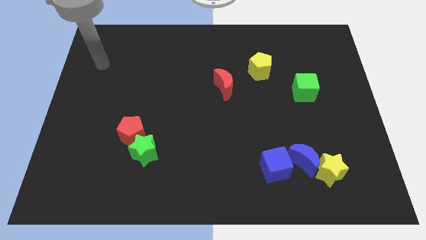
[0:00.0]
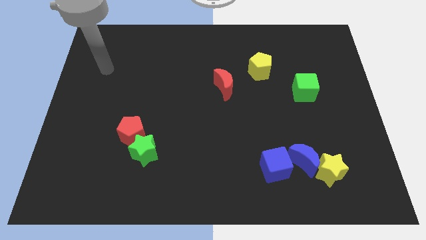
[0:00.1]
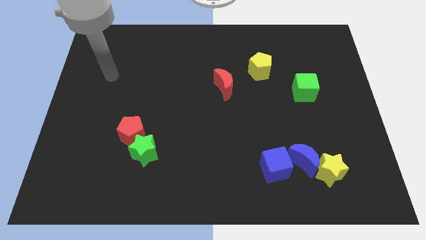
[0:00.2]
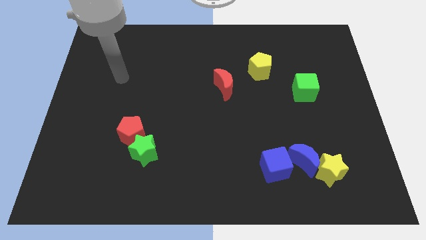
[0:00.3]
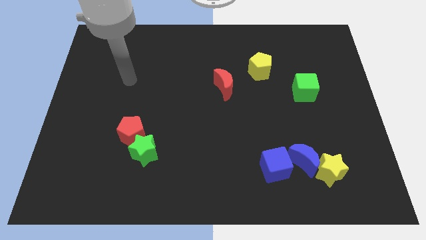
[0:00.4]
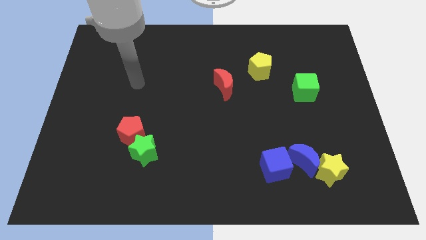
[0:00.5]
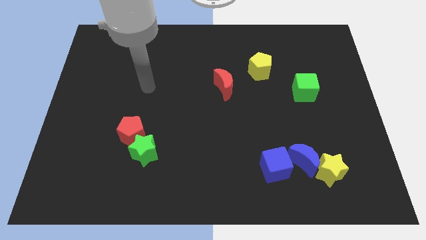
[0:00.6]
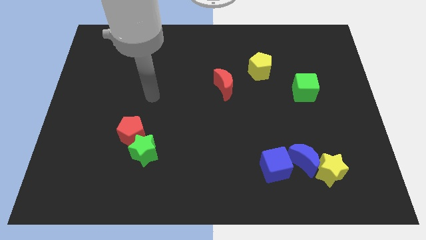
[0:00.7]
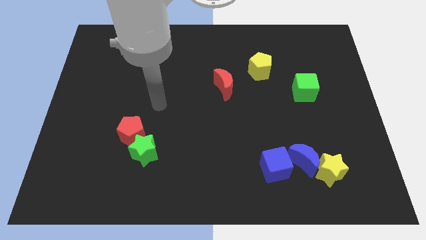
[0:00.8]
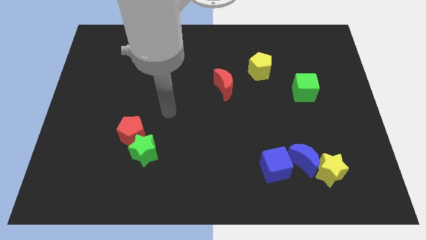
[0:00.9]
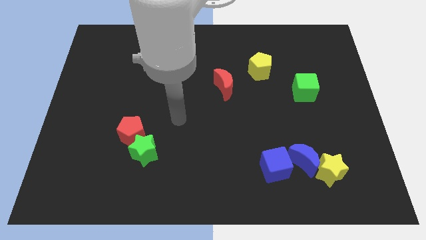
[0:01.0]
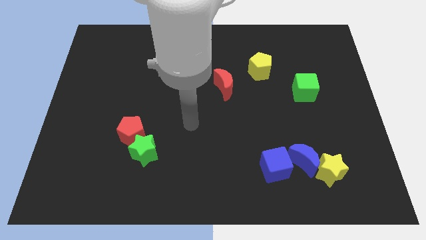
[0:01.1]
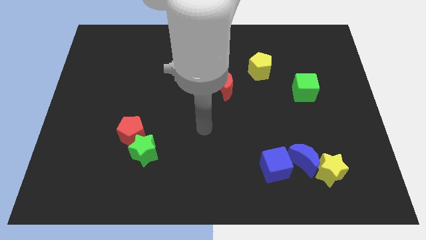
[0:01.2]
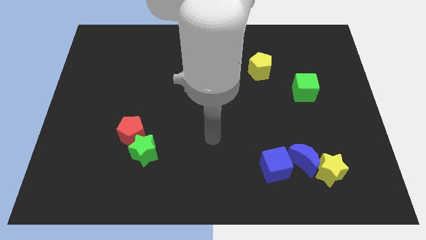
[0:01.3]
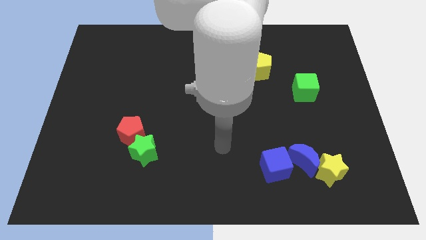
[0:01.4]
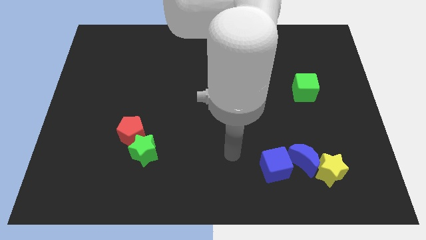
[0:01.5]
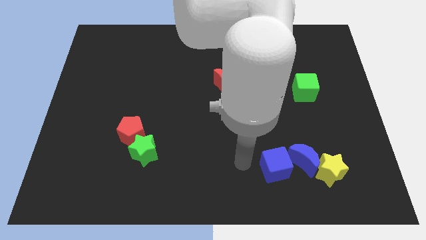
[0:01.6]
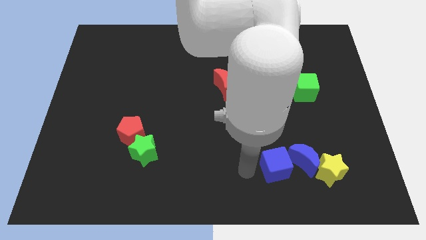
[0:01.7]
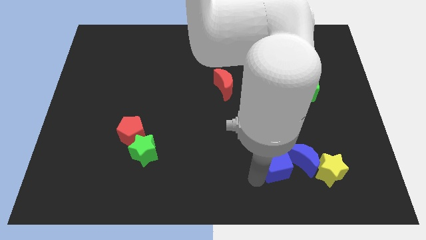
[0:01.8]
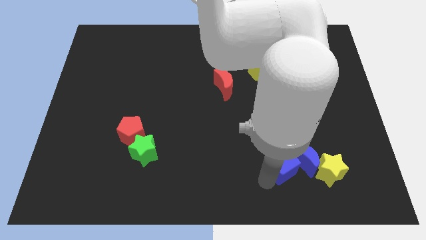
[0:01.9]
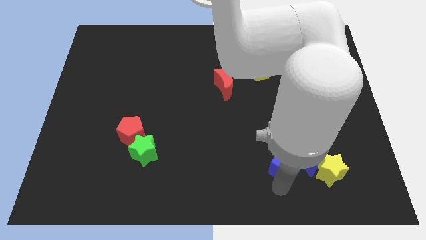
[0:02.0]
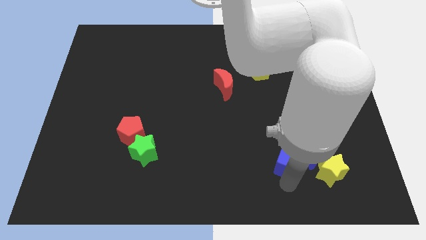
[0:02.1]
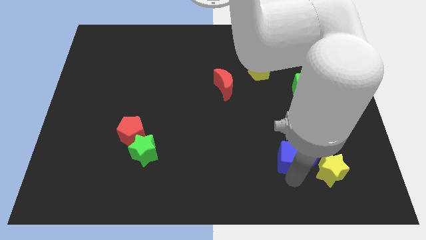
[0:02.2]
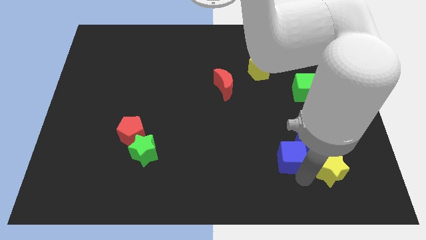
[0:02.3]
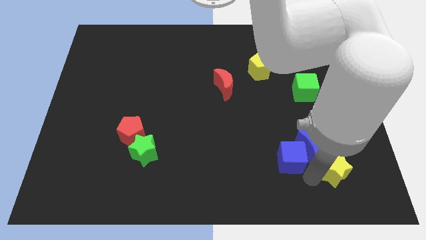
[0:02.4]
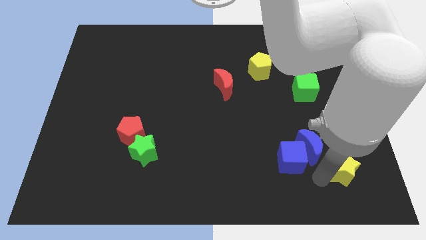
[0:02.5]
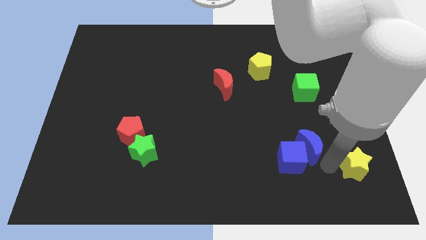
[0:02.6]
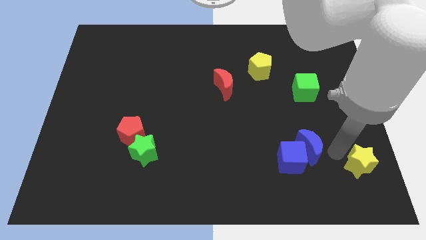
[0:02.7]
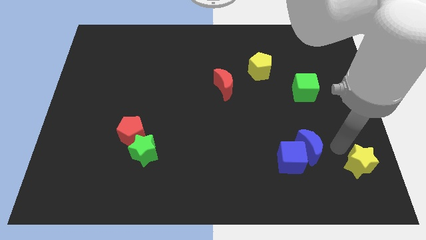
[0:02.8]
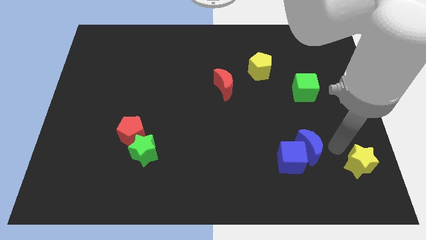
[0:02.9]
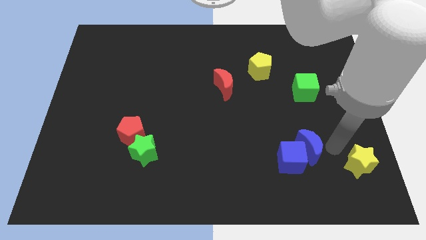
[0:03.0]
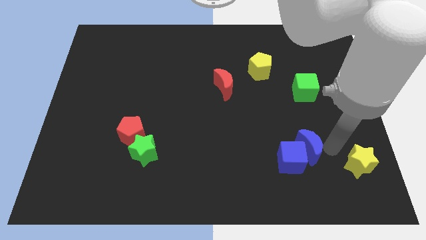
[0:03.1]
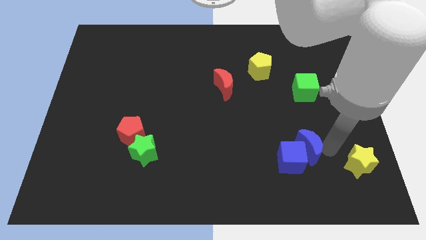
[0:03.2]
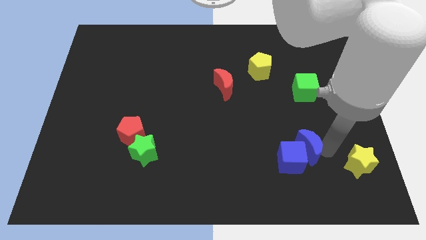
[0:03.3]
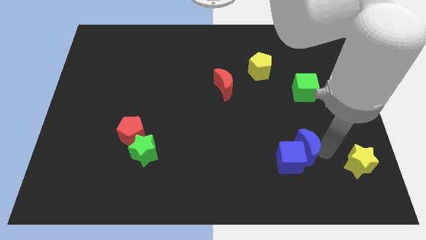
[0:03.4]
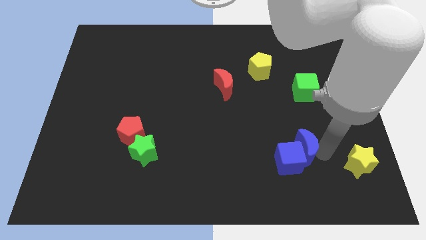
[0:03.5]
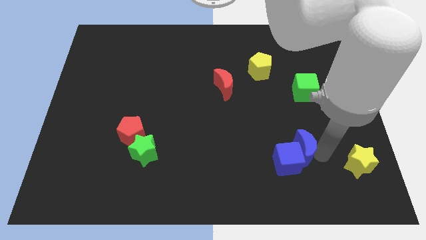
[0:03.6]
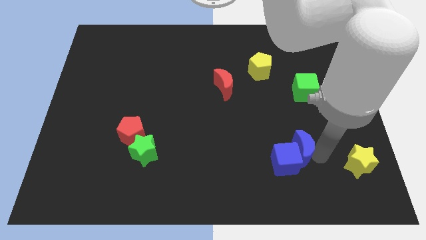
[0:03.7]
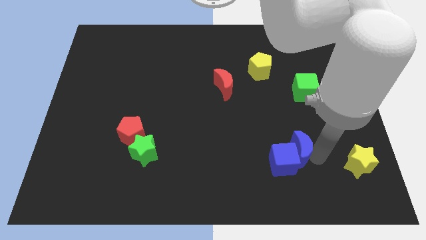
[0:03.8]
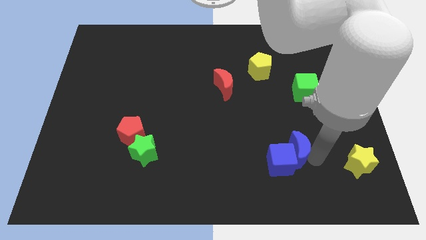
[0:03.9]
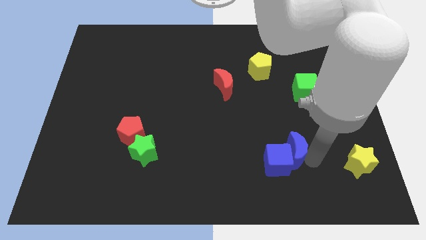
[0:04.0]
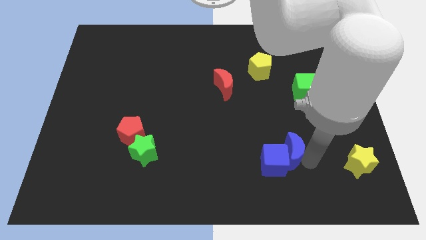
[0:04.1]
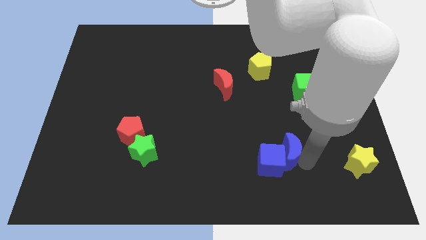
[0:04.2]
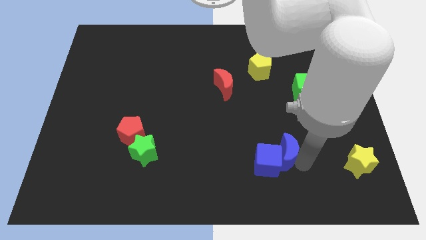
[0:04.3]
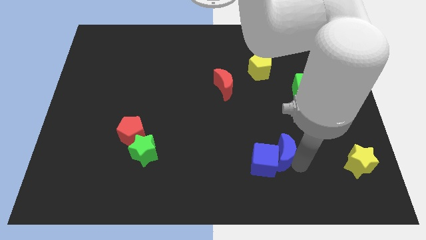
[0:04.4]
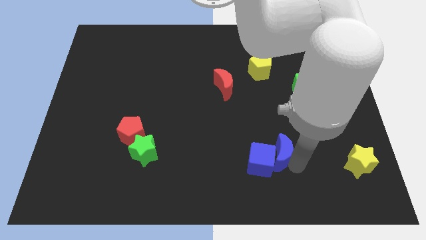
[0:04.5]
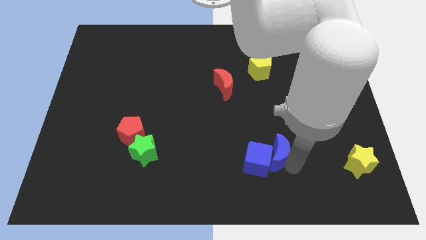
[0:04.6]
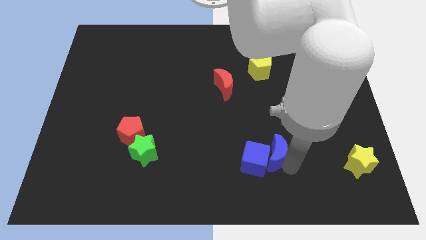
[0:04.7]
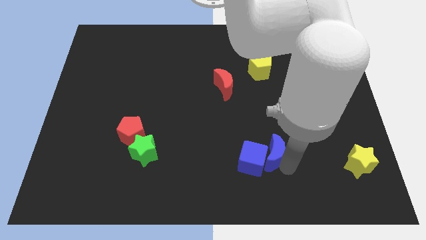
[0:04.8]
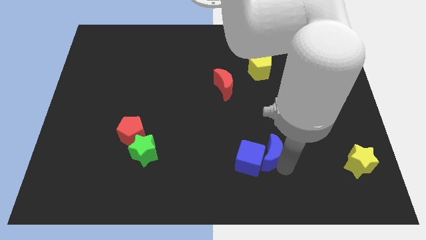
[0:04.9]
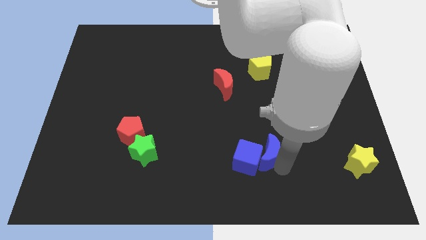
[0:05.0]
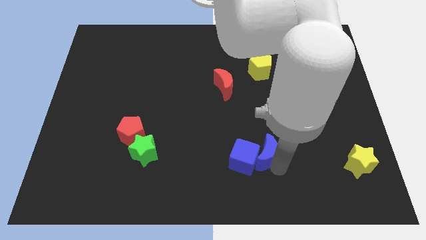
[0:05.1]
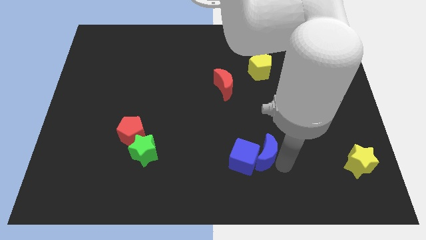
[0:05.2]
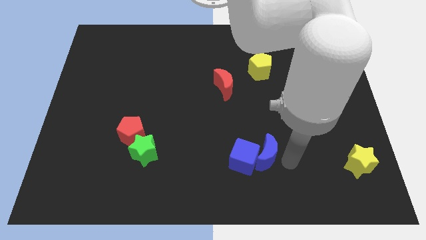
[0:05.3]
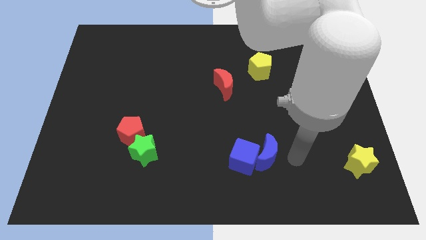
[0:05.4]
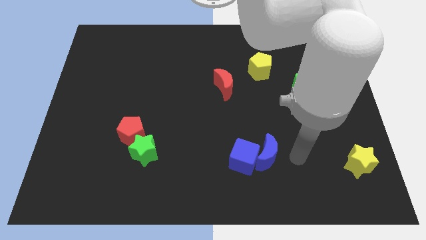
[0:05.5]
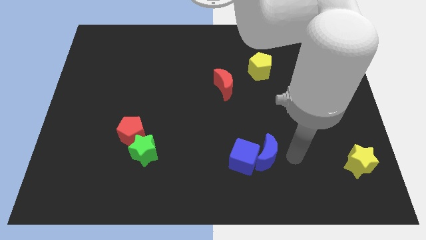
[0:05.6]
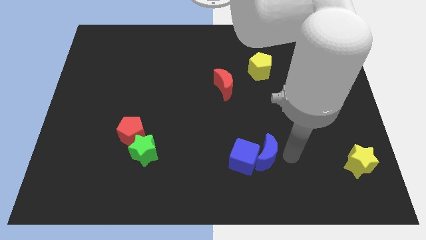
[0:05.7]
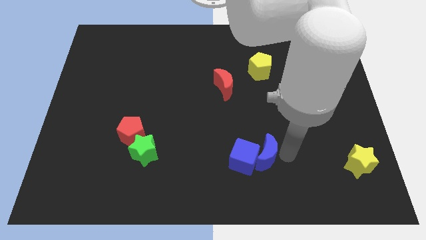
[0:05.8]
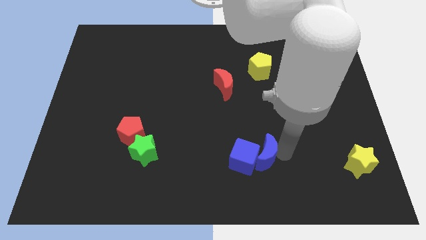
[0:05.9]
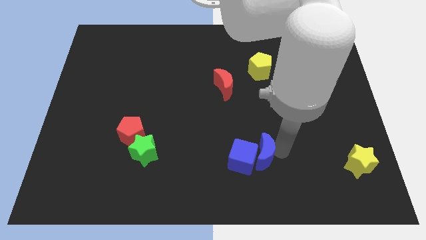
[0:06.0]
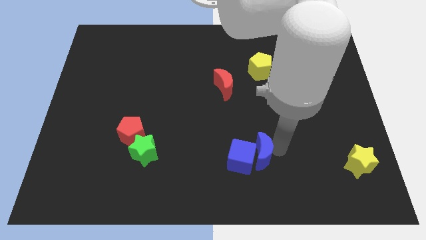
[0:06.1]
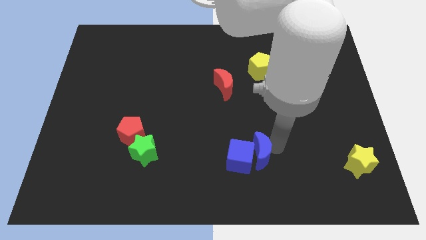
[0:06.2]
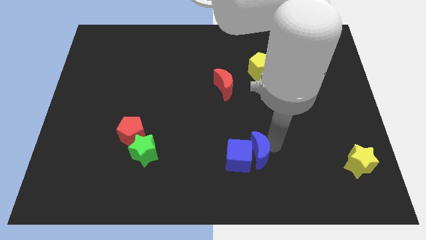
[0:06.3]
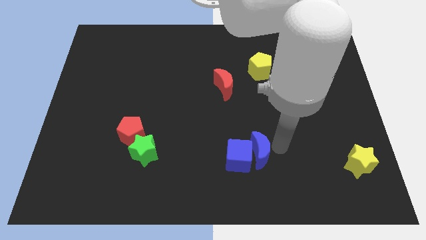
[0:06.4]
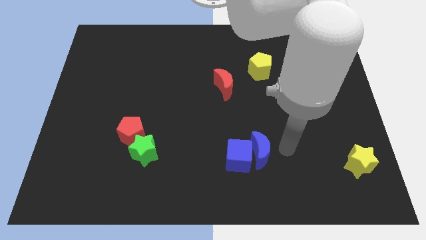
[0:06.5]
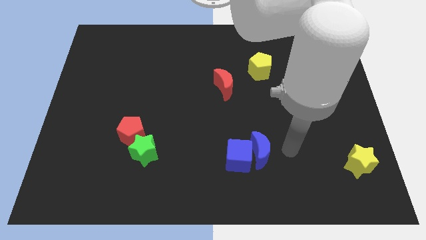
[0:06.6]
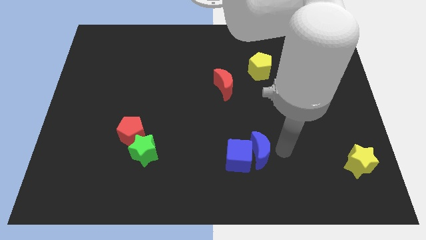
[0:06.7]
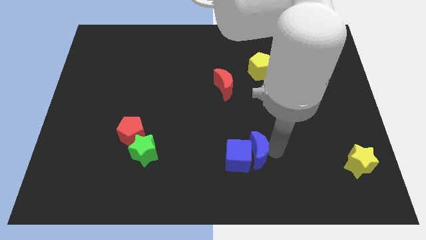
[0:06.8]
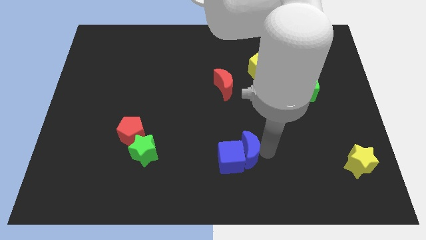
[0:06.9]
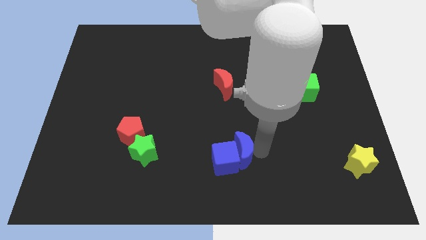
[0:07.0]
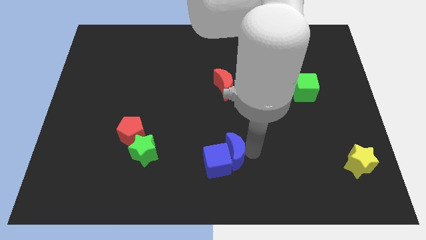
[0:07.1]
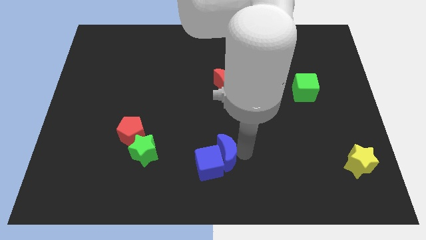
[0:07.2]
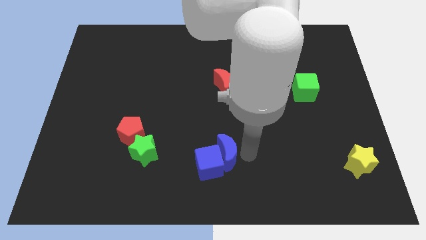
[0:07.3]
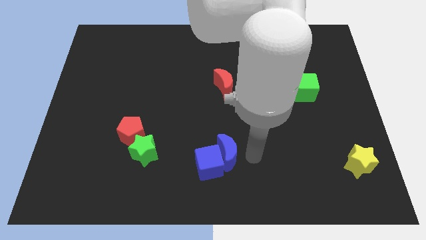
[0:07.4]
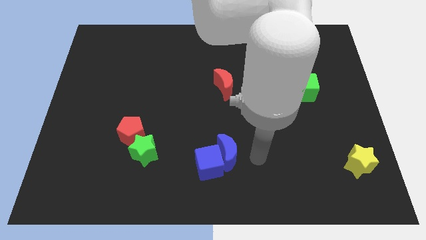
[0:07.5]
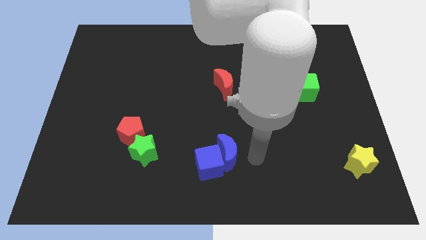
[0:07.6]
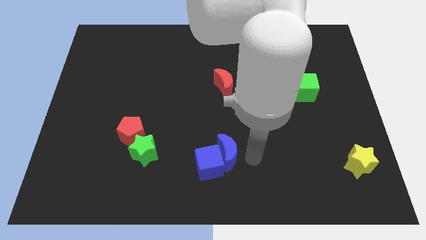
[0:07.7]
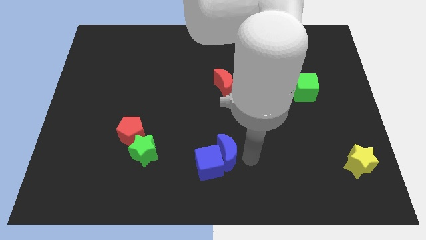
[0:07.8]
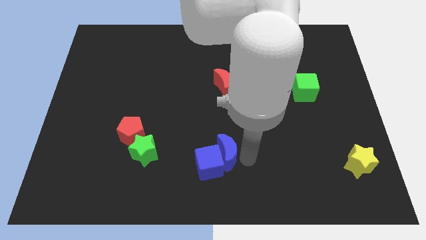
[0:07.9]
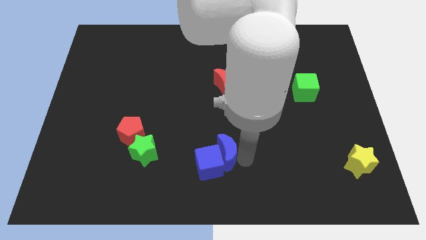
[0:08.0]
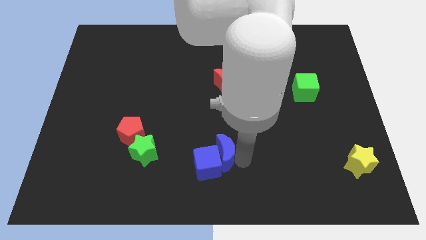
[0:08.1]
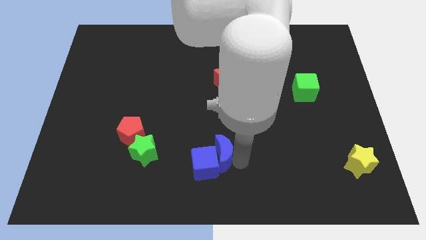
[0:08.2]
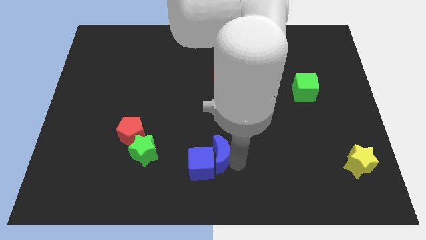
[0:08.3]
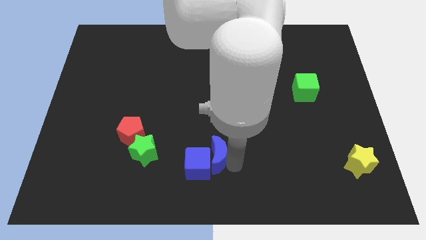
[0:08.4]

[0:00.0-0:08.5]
move the blue moon to the right side of the green star
